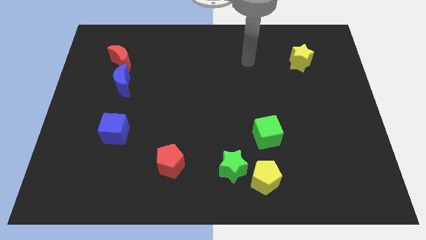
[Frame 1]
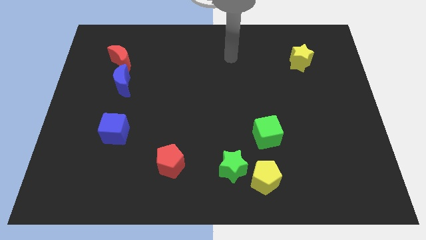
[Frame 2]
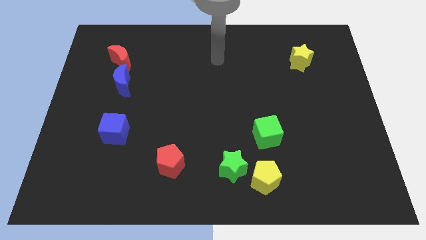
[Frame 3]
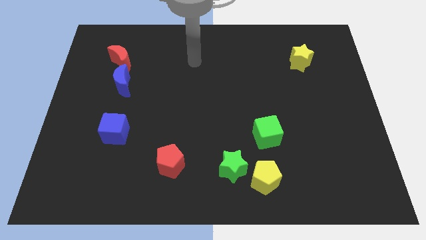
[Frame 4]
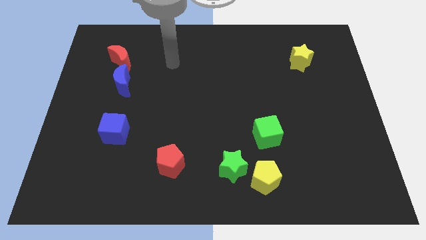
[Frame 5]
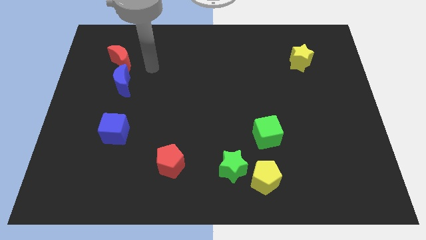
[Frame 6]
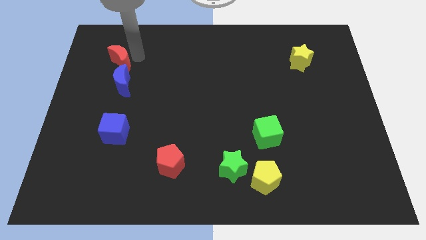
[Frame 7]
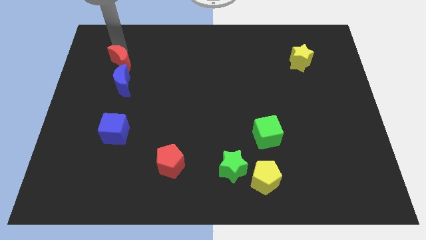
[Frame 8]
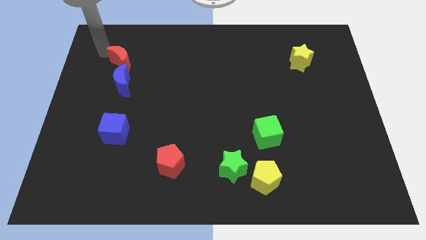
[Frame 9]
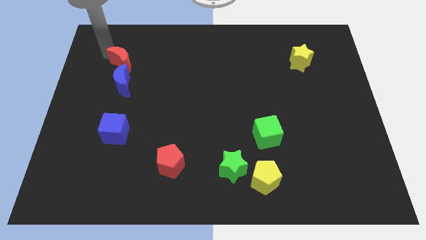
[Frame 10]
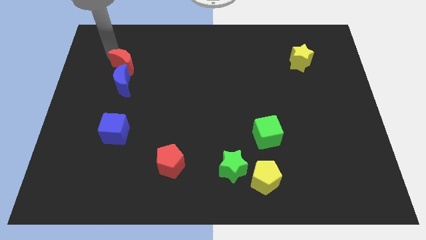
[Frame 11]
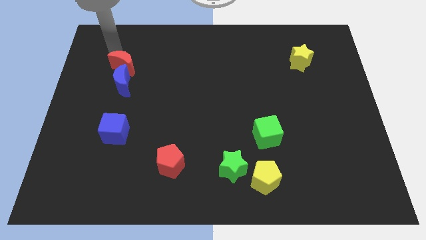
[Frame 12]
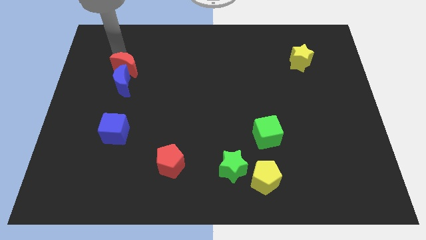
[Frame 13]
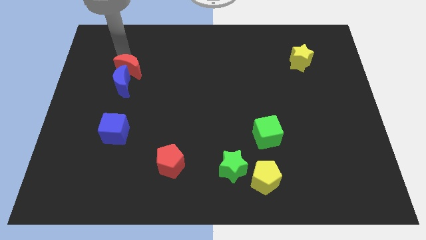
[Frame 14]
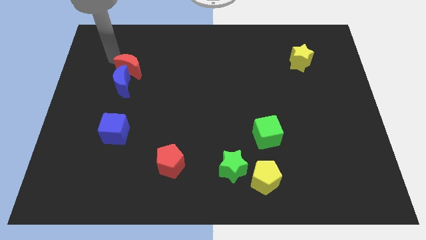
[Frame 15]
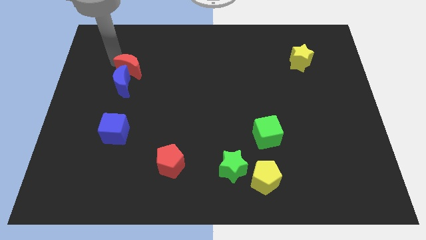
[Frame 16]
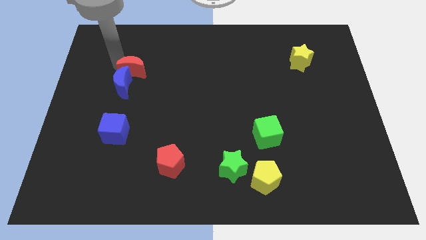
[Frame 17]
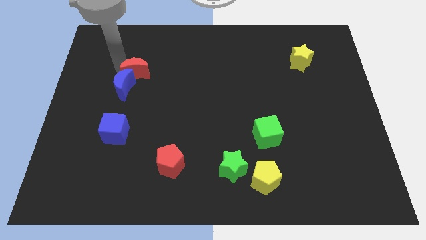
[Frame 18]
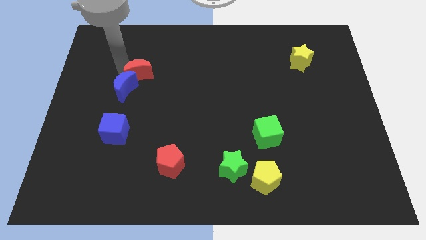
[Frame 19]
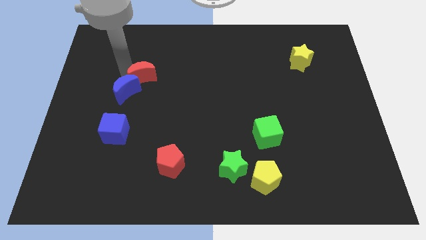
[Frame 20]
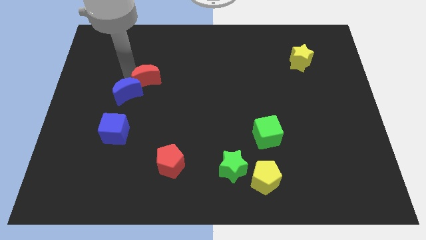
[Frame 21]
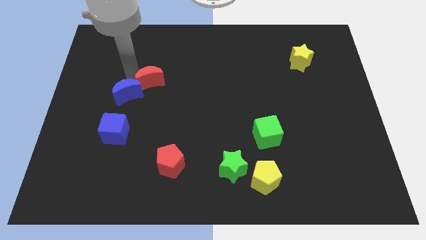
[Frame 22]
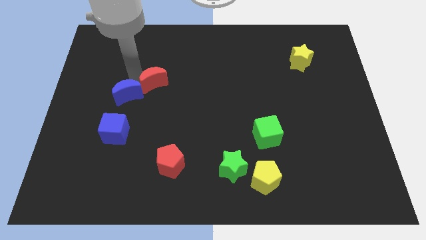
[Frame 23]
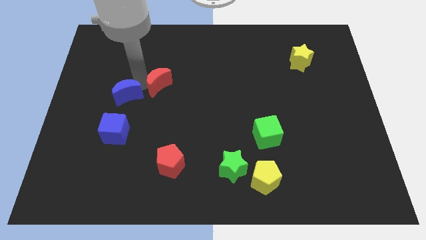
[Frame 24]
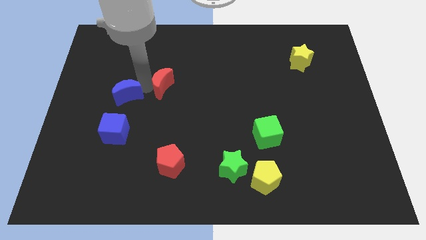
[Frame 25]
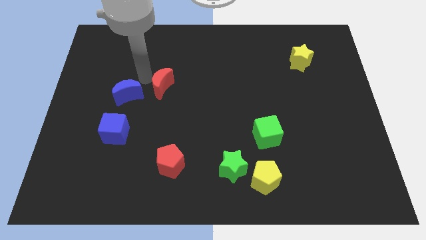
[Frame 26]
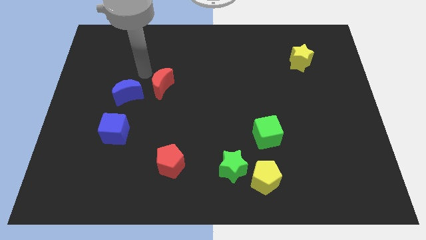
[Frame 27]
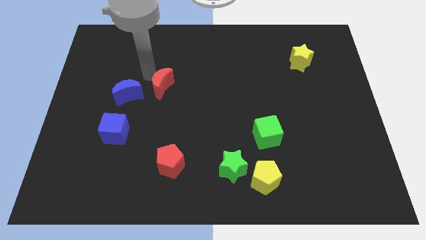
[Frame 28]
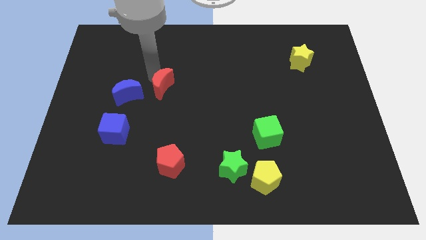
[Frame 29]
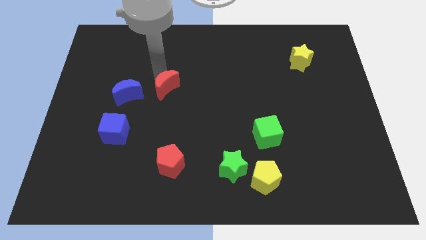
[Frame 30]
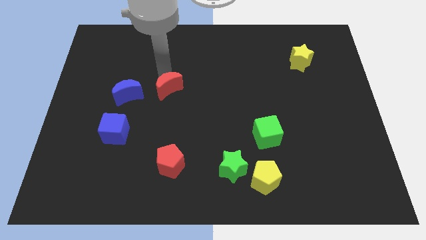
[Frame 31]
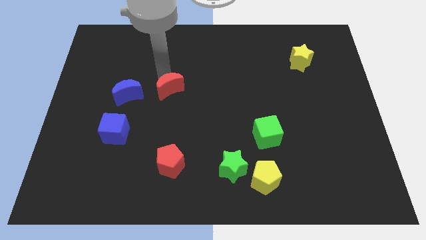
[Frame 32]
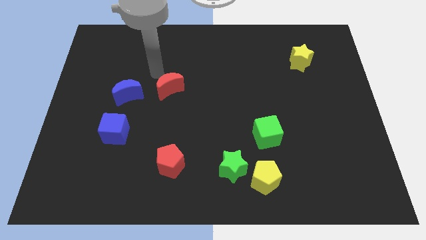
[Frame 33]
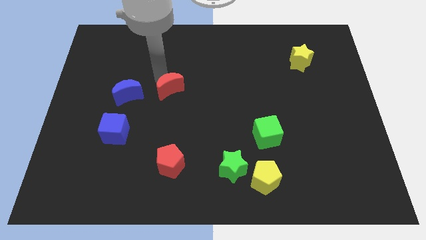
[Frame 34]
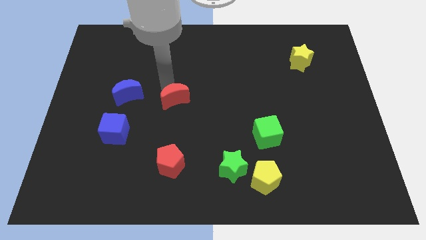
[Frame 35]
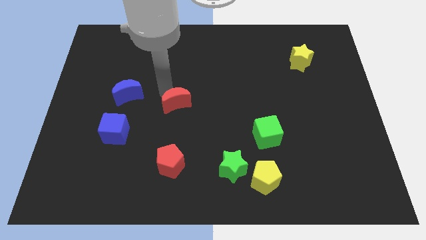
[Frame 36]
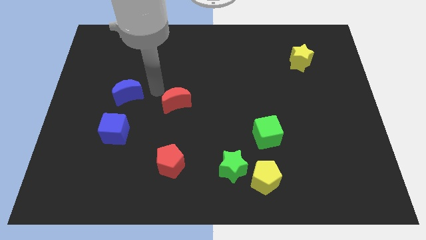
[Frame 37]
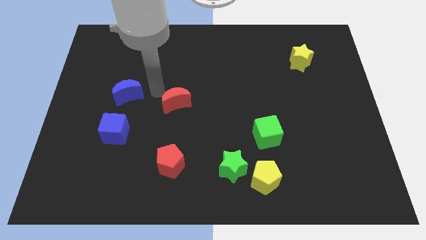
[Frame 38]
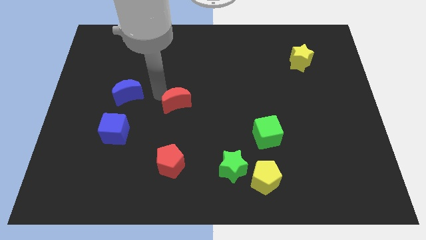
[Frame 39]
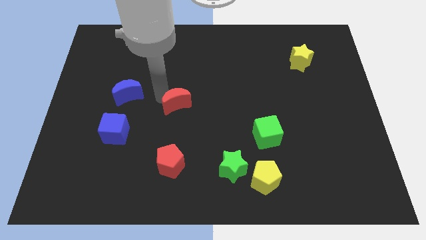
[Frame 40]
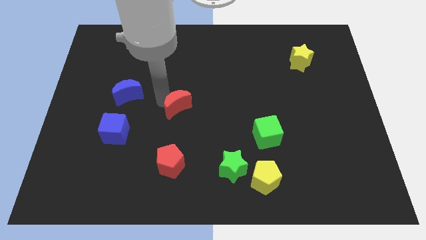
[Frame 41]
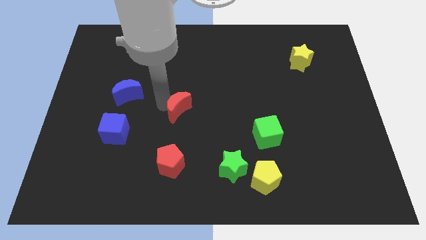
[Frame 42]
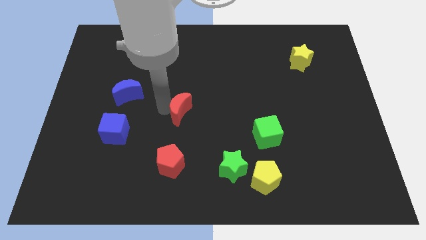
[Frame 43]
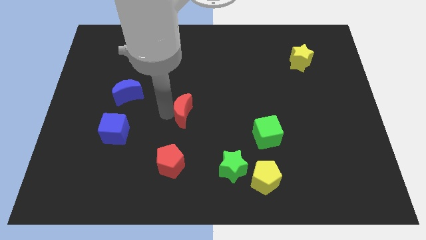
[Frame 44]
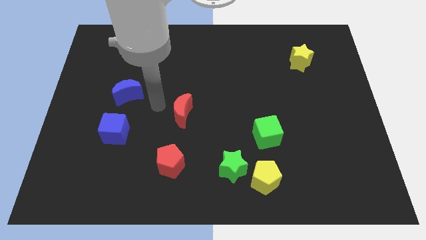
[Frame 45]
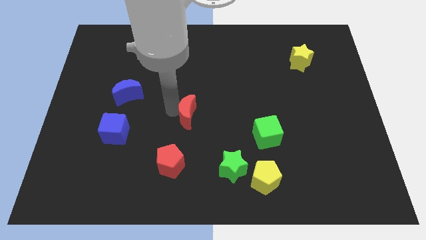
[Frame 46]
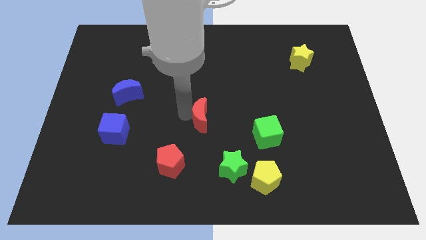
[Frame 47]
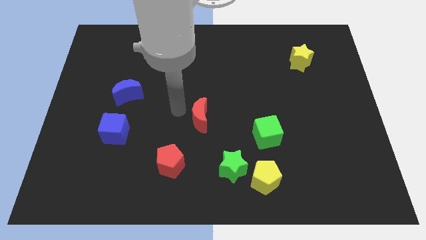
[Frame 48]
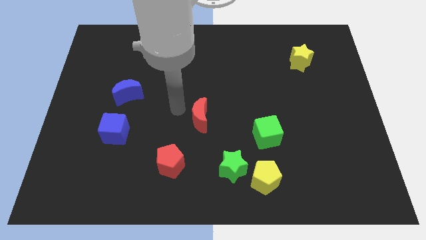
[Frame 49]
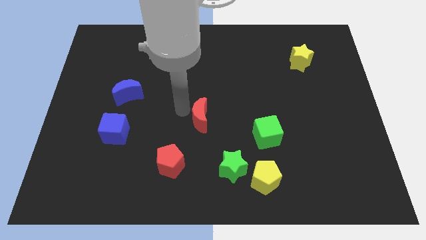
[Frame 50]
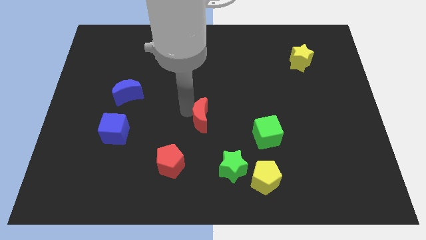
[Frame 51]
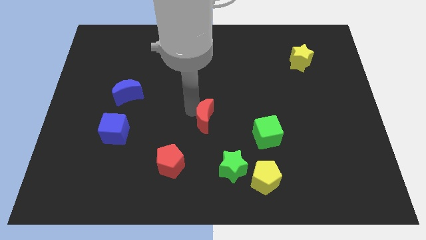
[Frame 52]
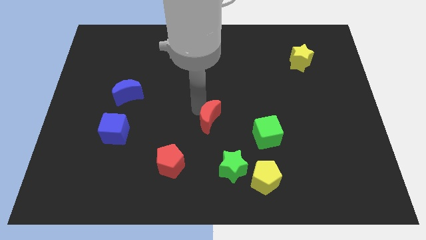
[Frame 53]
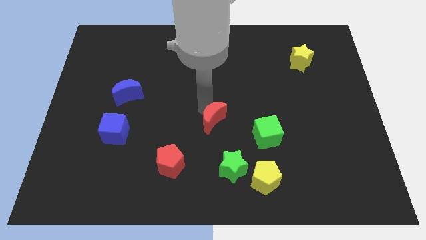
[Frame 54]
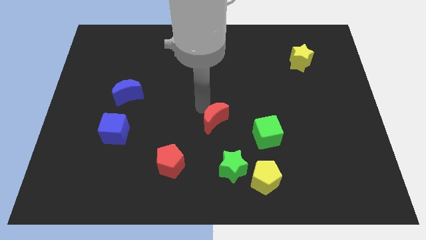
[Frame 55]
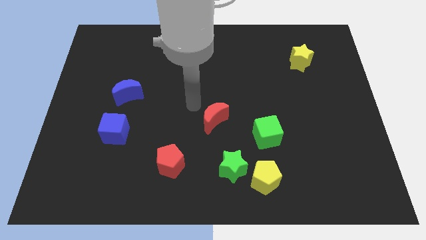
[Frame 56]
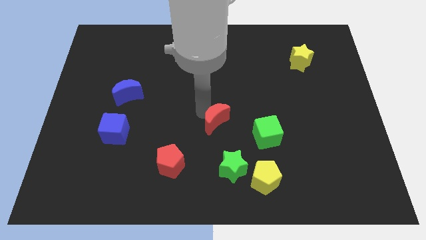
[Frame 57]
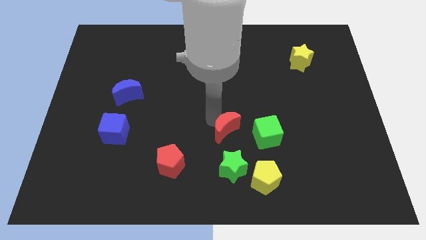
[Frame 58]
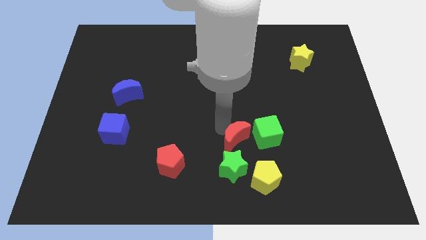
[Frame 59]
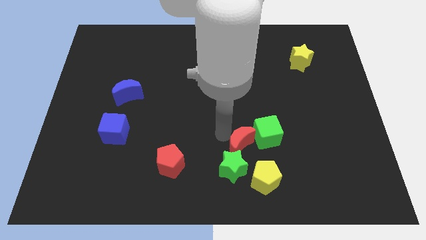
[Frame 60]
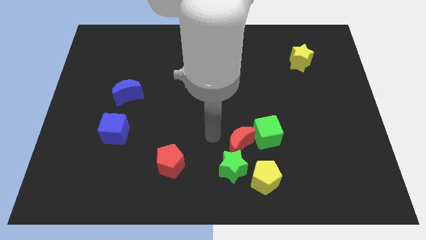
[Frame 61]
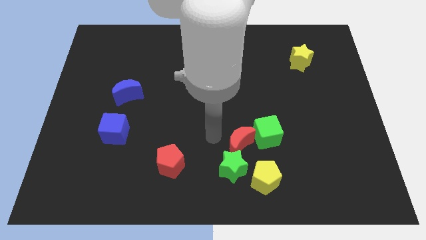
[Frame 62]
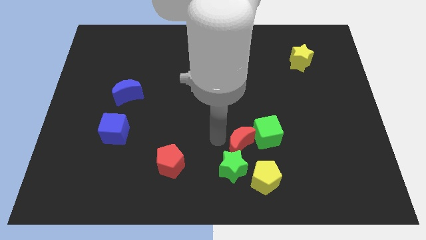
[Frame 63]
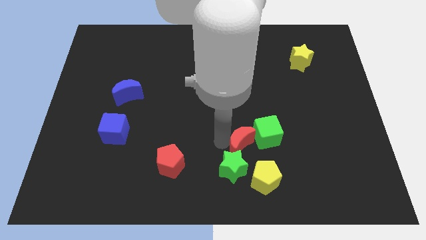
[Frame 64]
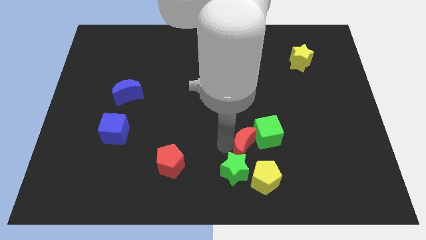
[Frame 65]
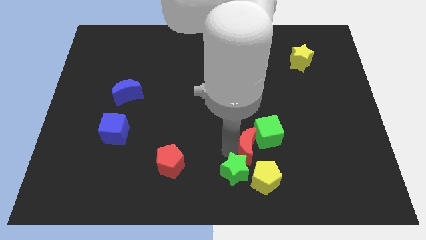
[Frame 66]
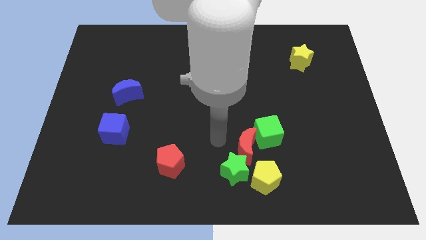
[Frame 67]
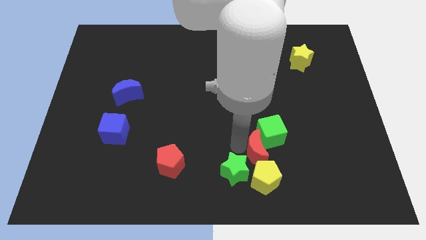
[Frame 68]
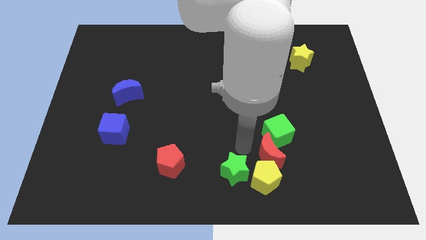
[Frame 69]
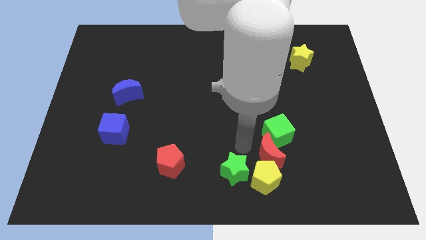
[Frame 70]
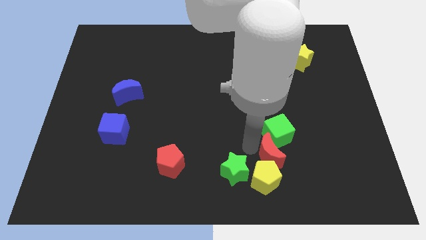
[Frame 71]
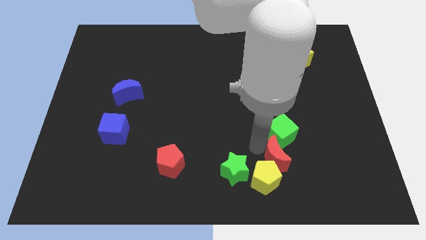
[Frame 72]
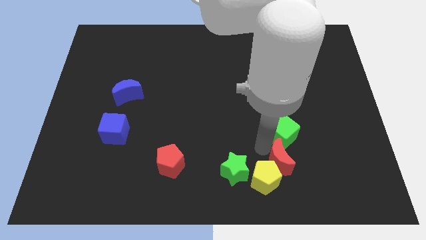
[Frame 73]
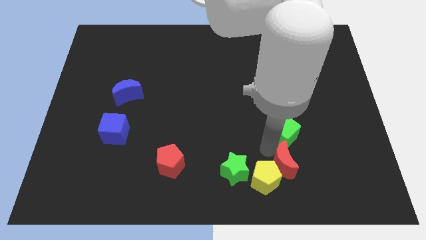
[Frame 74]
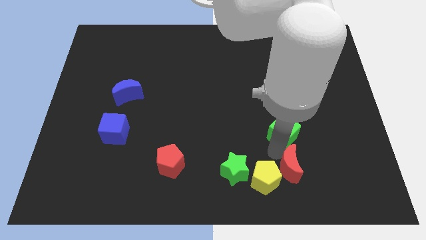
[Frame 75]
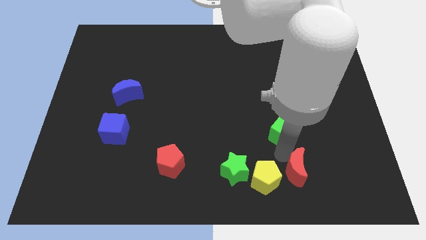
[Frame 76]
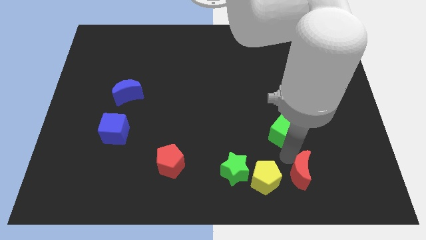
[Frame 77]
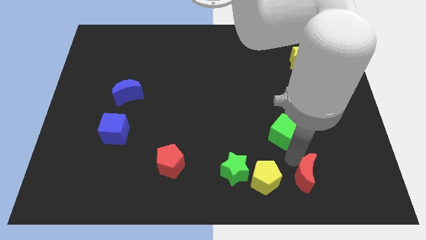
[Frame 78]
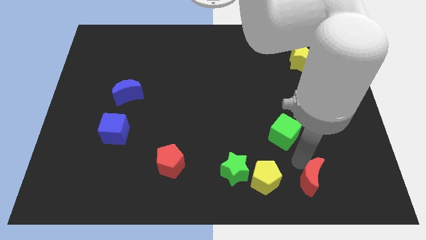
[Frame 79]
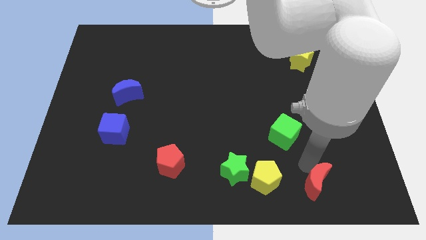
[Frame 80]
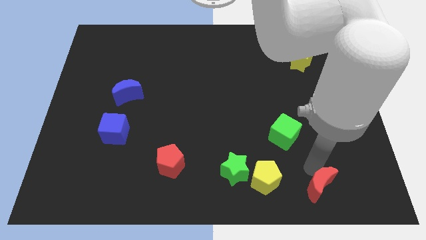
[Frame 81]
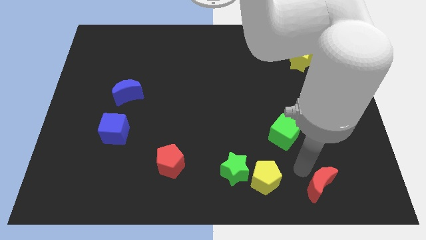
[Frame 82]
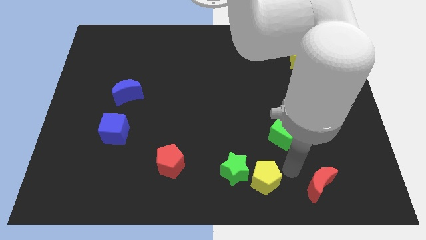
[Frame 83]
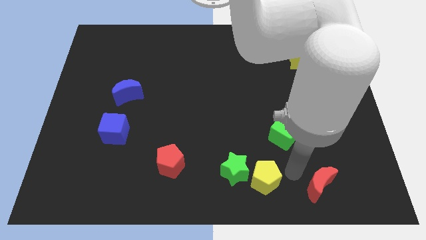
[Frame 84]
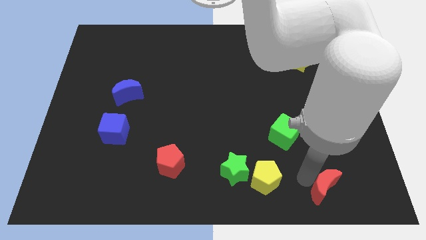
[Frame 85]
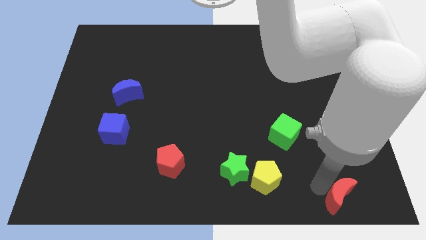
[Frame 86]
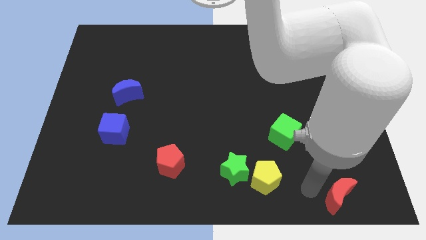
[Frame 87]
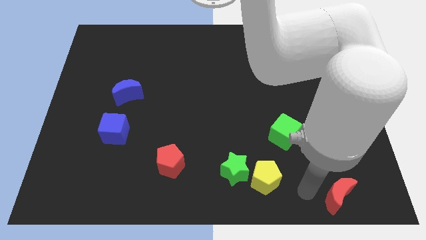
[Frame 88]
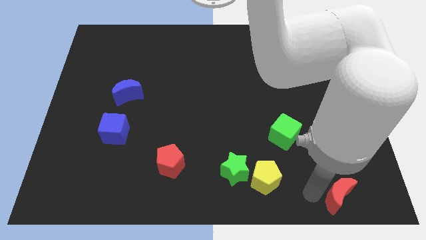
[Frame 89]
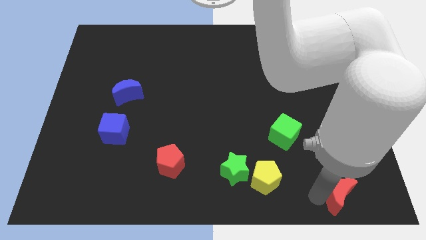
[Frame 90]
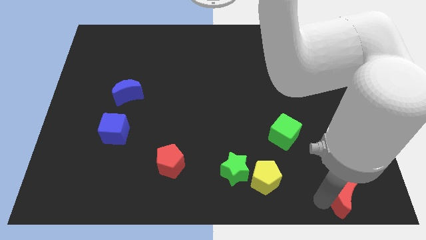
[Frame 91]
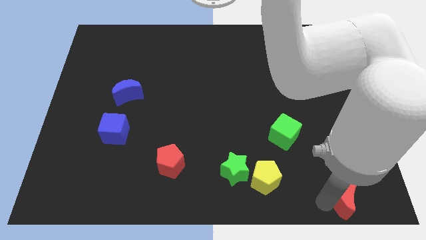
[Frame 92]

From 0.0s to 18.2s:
put the red moon to the bottom right corner
